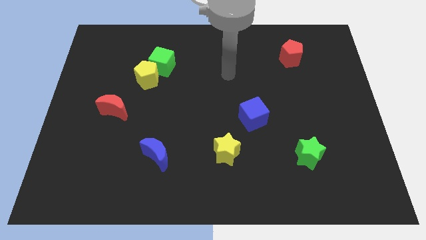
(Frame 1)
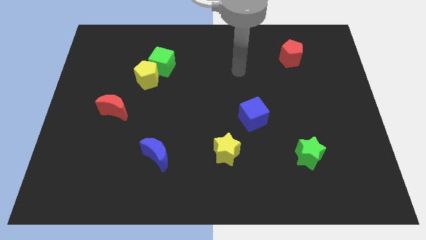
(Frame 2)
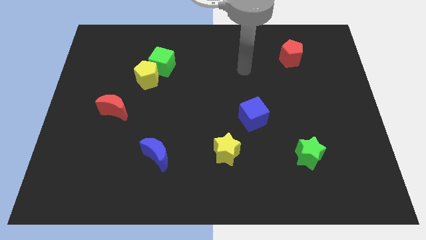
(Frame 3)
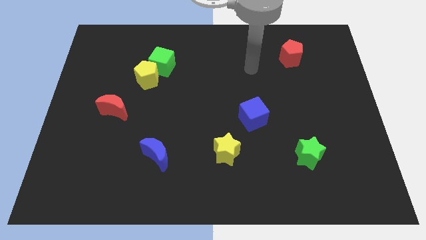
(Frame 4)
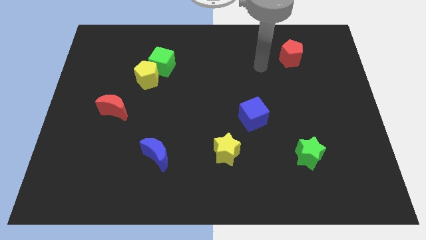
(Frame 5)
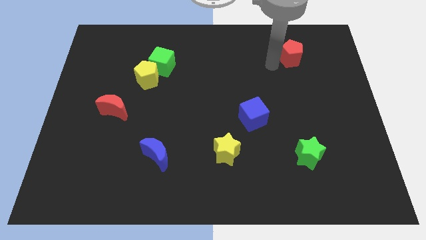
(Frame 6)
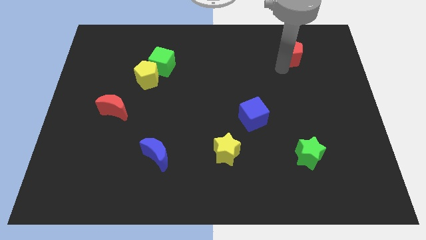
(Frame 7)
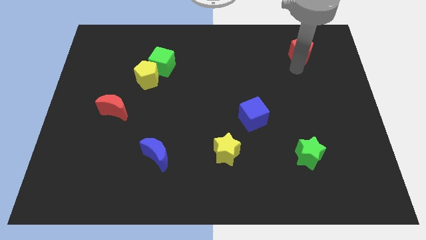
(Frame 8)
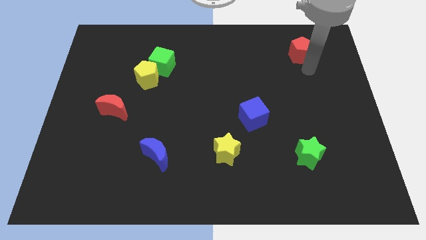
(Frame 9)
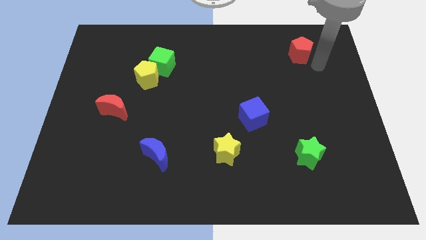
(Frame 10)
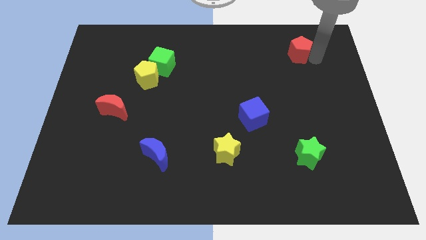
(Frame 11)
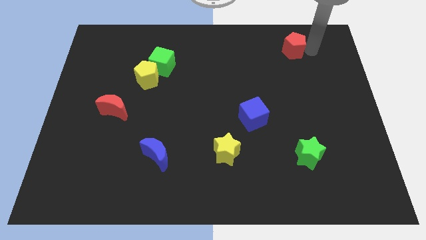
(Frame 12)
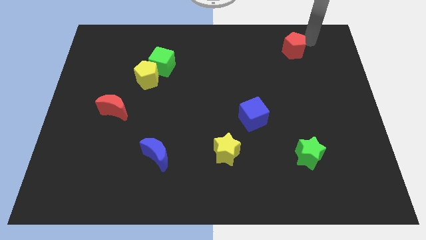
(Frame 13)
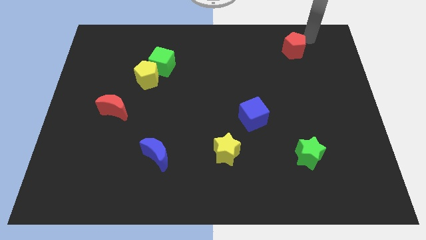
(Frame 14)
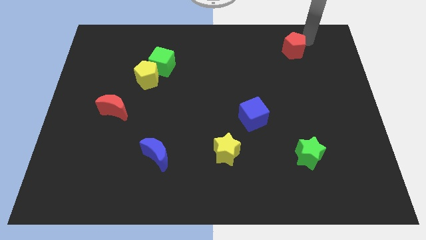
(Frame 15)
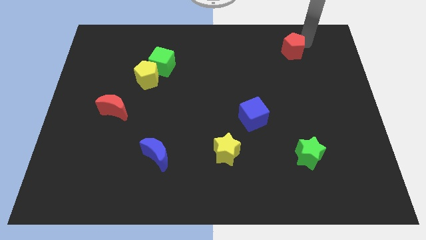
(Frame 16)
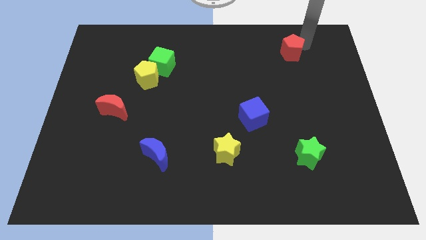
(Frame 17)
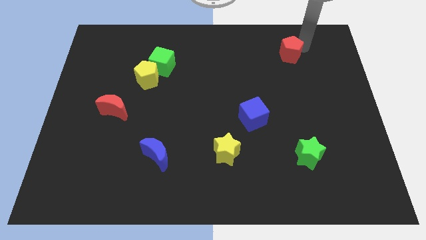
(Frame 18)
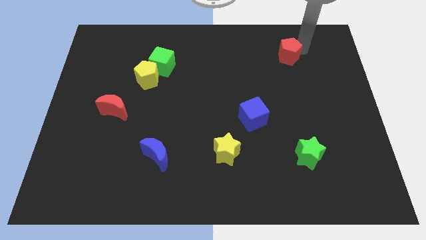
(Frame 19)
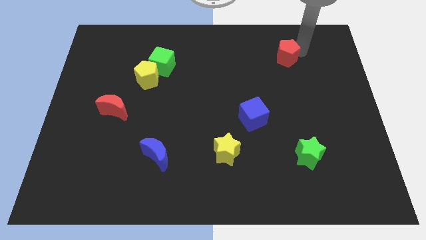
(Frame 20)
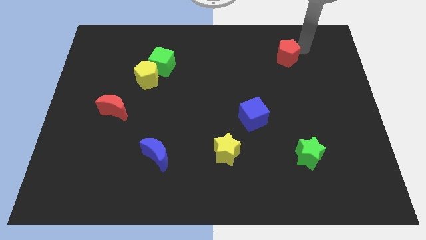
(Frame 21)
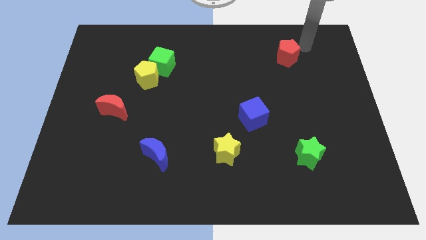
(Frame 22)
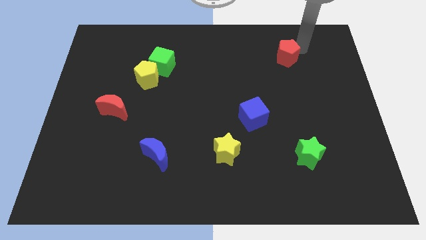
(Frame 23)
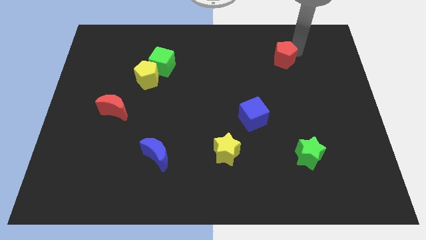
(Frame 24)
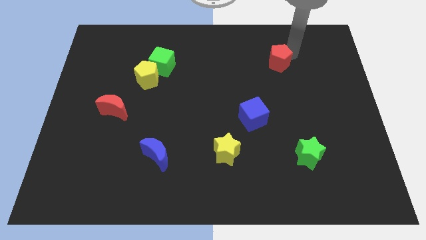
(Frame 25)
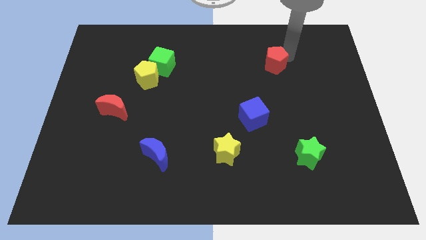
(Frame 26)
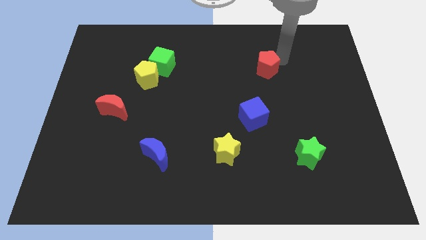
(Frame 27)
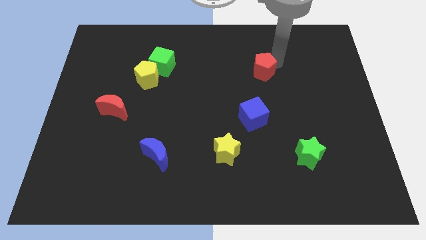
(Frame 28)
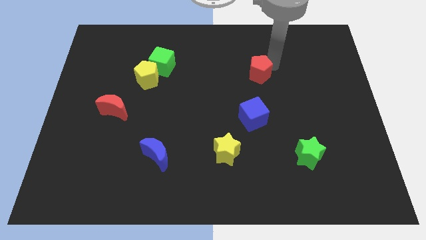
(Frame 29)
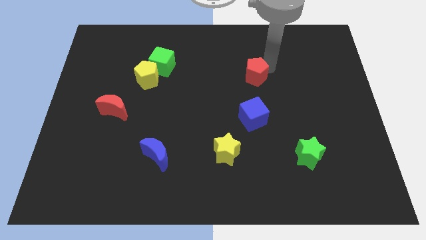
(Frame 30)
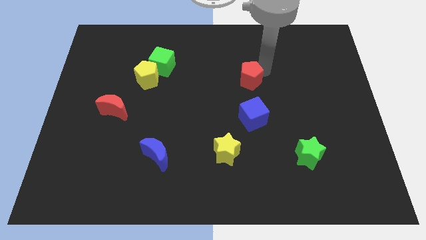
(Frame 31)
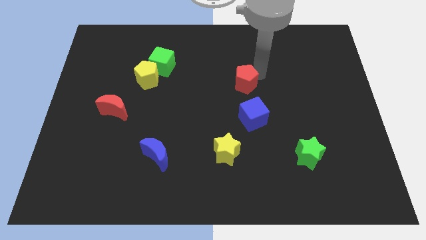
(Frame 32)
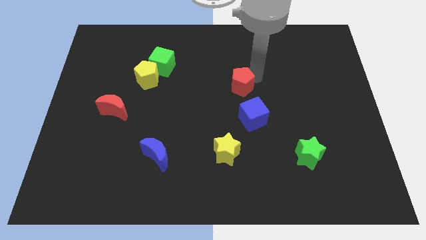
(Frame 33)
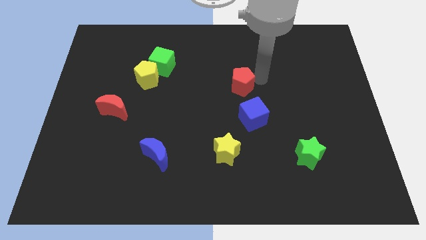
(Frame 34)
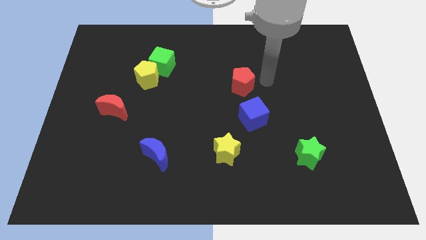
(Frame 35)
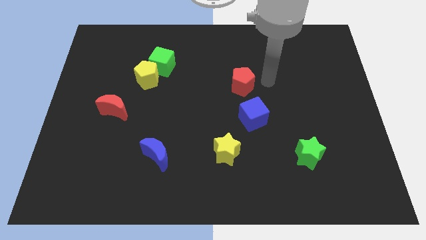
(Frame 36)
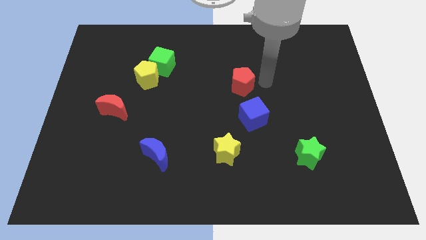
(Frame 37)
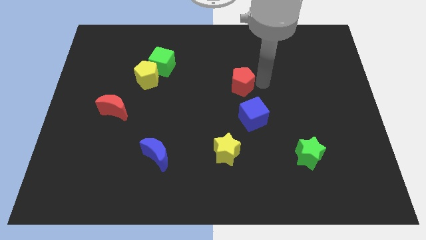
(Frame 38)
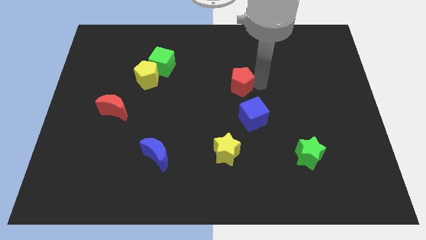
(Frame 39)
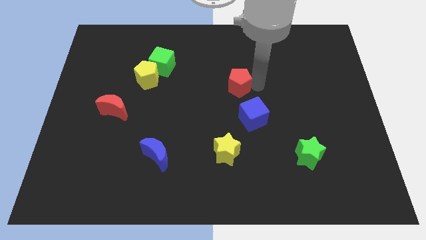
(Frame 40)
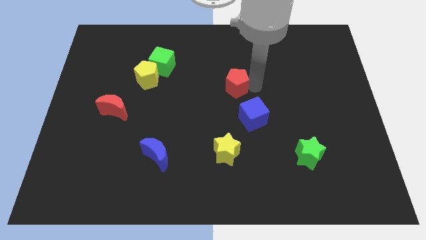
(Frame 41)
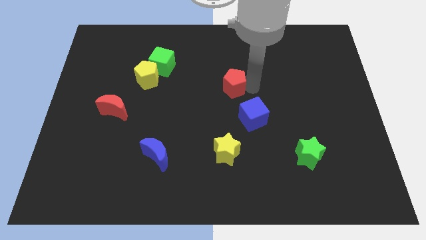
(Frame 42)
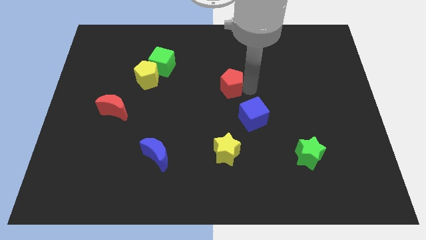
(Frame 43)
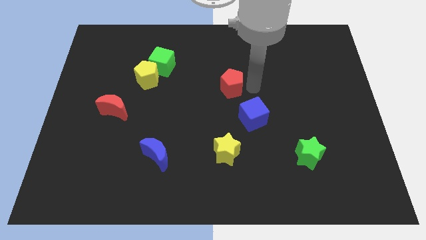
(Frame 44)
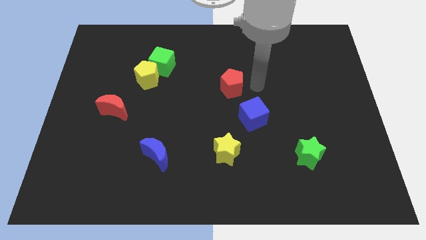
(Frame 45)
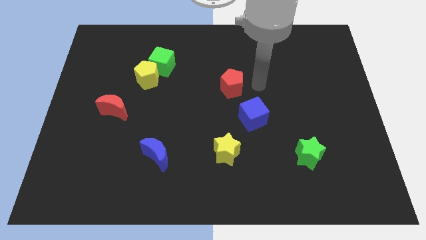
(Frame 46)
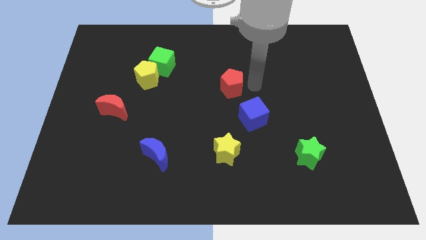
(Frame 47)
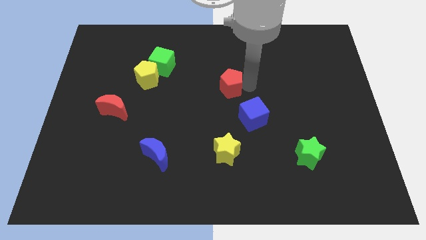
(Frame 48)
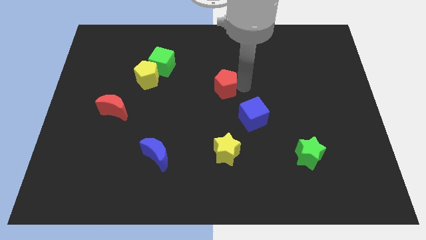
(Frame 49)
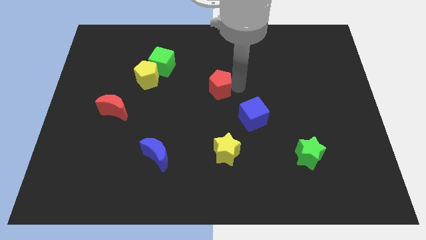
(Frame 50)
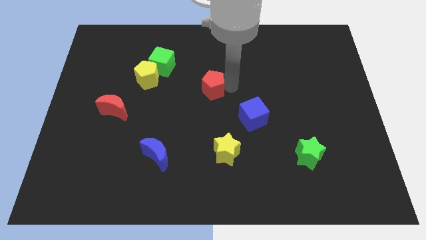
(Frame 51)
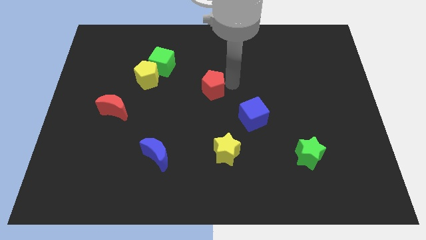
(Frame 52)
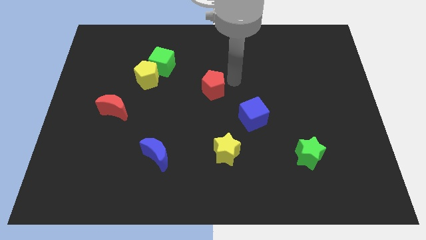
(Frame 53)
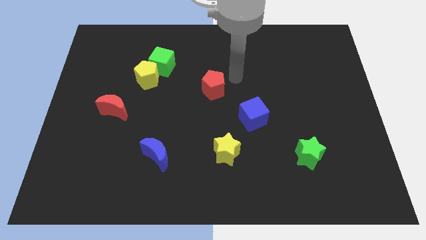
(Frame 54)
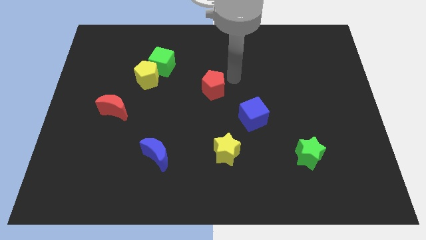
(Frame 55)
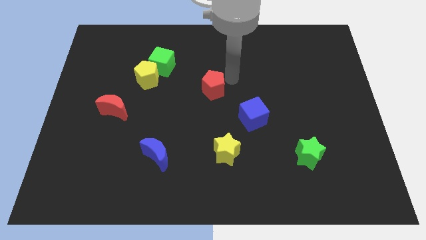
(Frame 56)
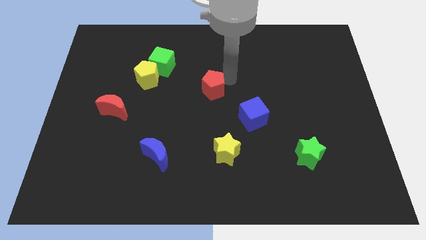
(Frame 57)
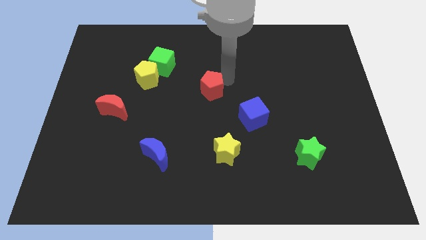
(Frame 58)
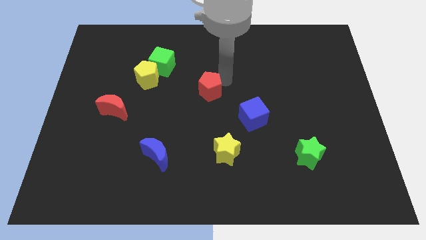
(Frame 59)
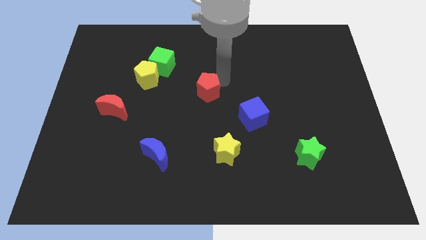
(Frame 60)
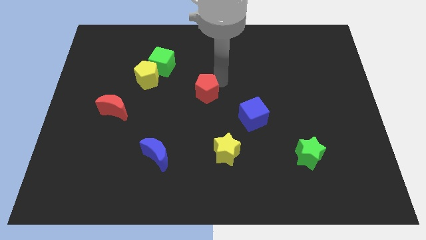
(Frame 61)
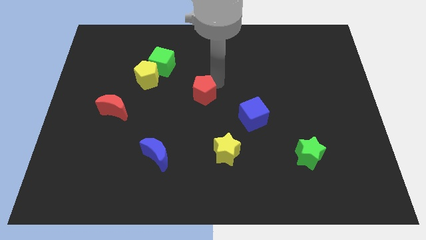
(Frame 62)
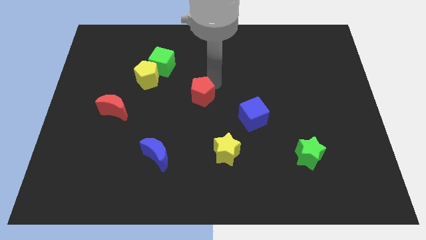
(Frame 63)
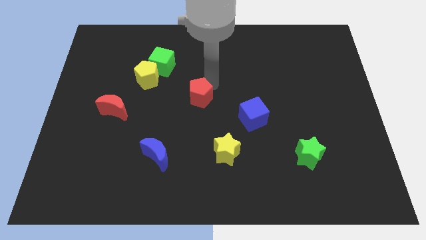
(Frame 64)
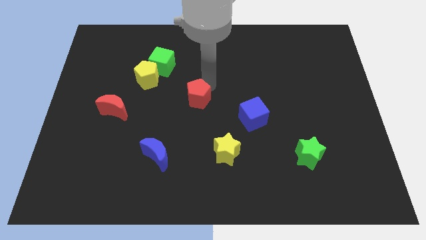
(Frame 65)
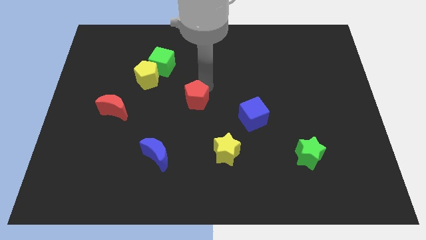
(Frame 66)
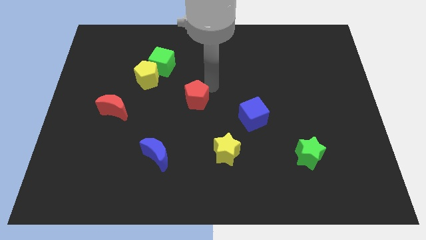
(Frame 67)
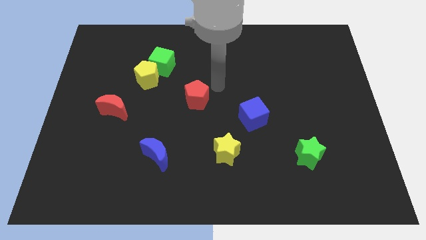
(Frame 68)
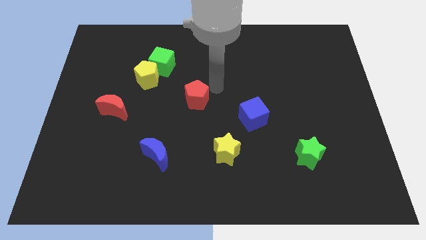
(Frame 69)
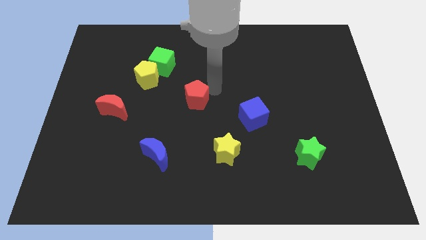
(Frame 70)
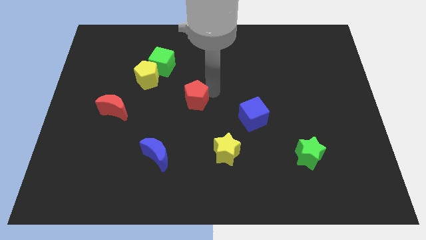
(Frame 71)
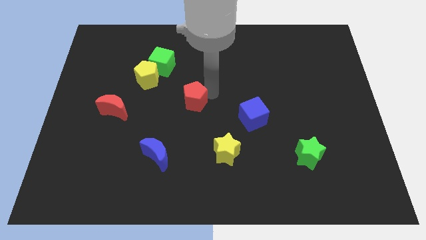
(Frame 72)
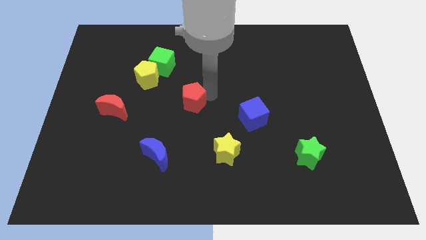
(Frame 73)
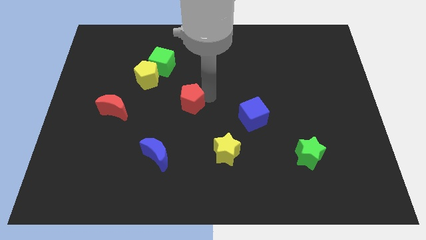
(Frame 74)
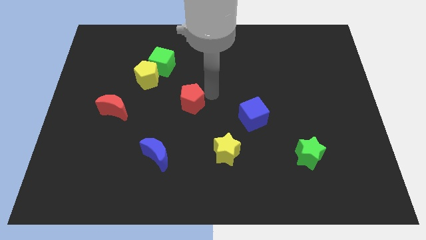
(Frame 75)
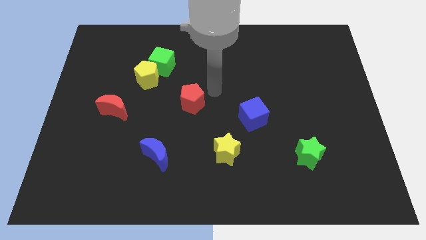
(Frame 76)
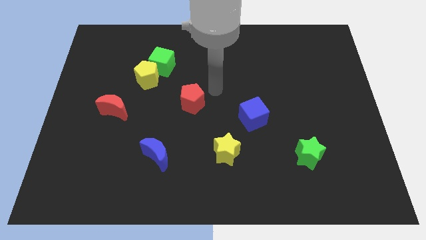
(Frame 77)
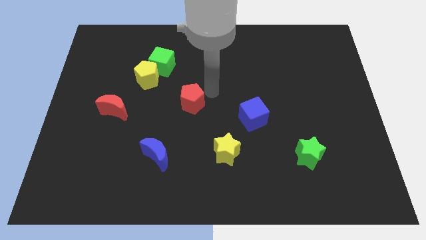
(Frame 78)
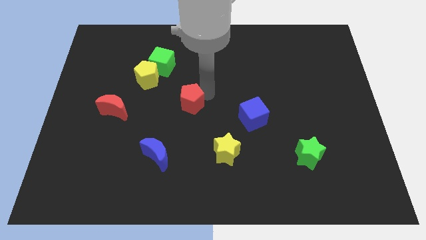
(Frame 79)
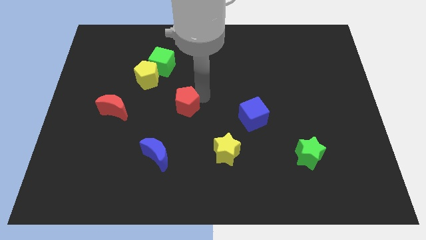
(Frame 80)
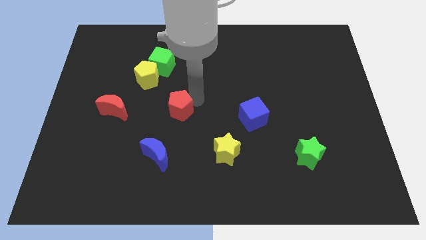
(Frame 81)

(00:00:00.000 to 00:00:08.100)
push the red pentagon to the top of the blue moon
